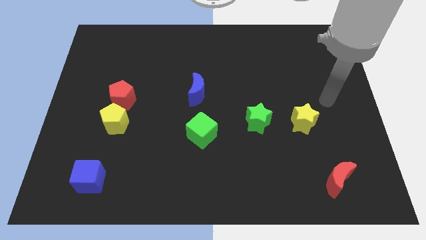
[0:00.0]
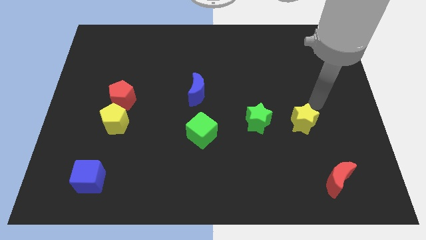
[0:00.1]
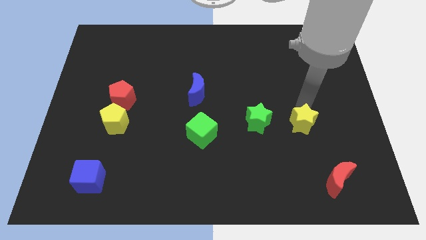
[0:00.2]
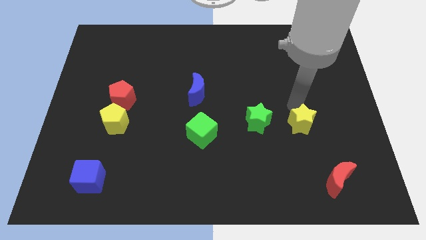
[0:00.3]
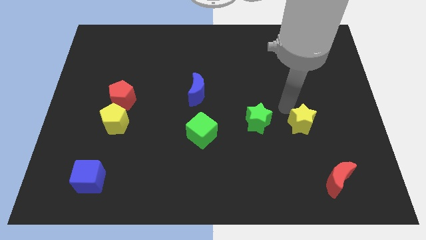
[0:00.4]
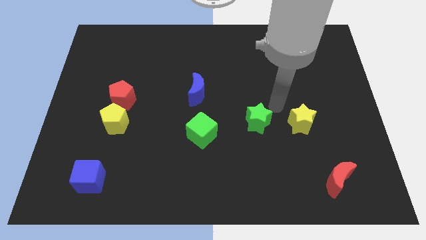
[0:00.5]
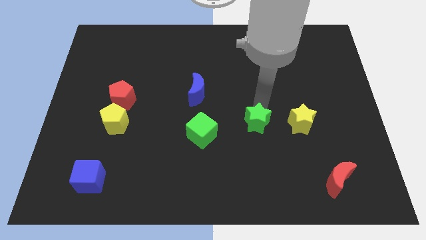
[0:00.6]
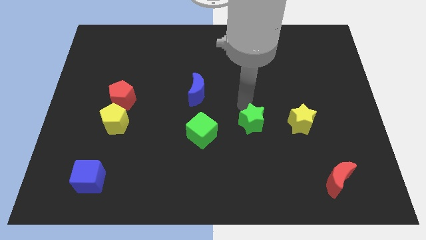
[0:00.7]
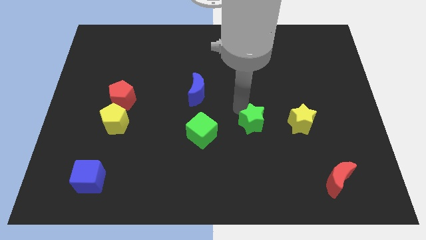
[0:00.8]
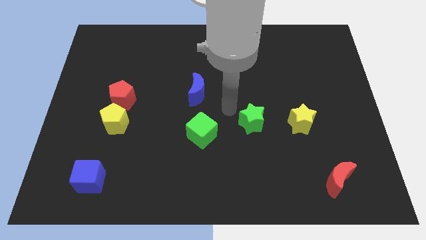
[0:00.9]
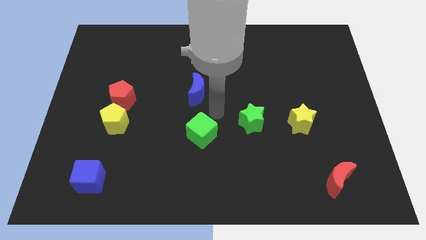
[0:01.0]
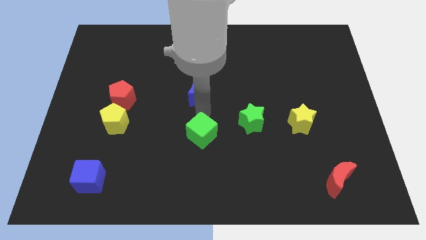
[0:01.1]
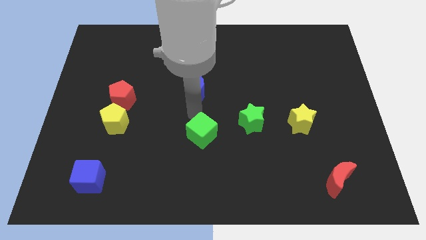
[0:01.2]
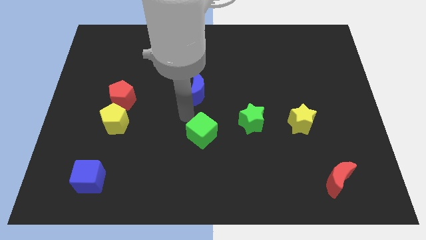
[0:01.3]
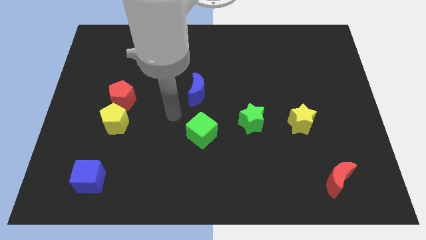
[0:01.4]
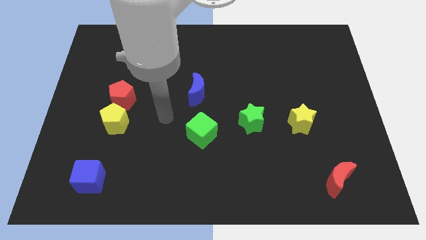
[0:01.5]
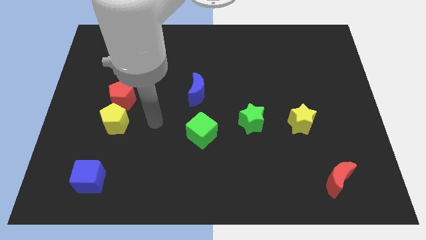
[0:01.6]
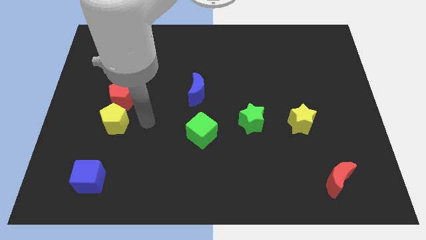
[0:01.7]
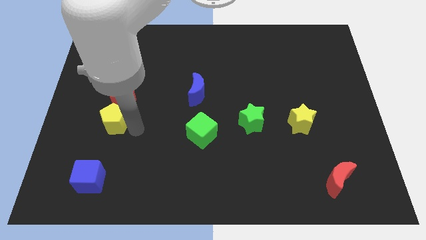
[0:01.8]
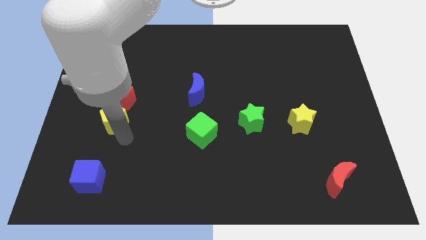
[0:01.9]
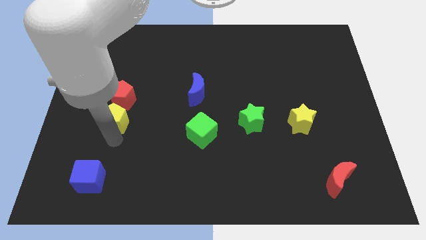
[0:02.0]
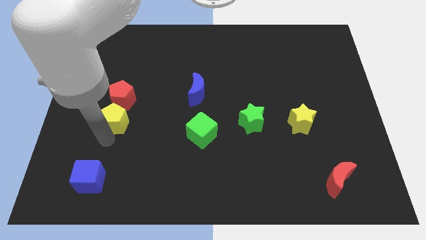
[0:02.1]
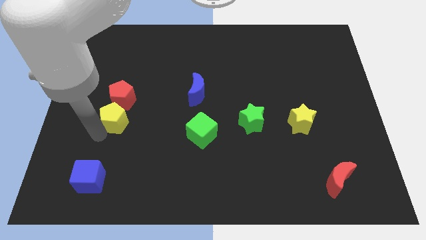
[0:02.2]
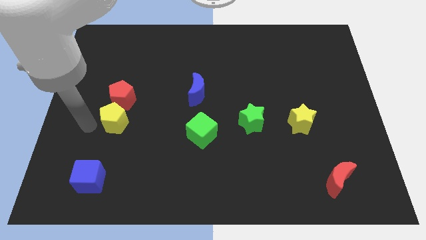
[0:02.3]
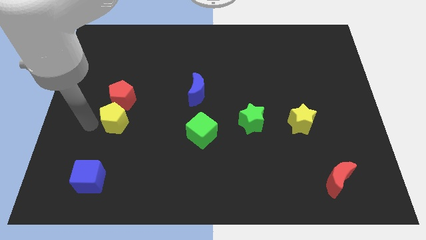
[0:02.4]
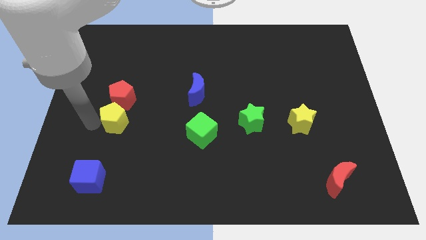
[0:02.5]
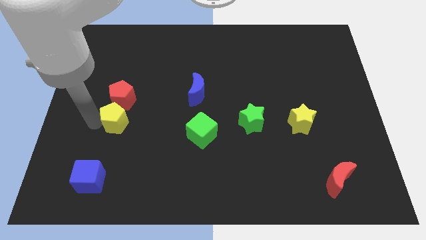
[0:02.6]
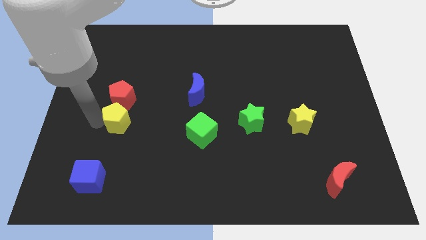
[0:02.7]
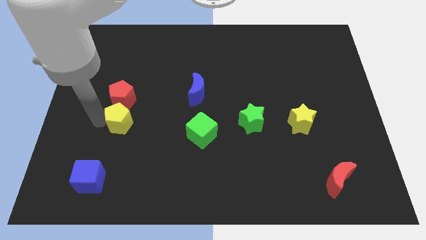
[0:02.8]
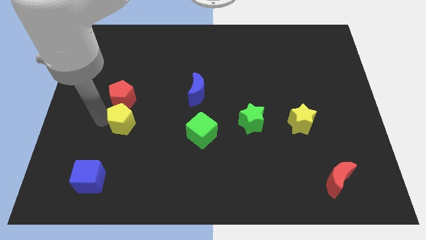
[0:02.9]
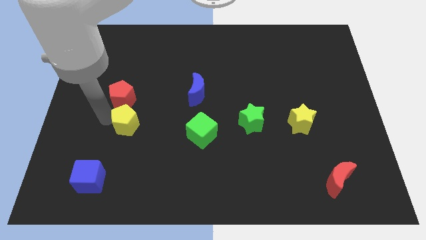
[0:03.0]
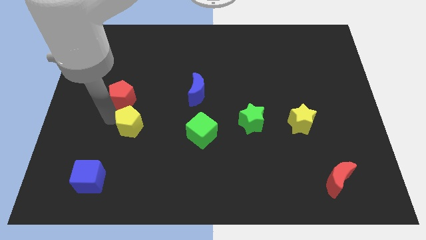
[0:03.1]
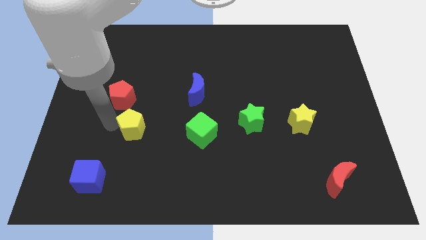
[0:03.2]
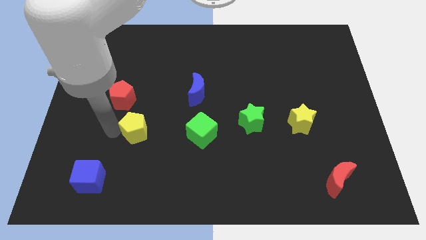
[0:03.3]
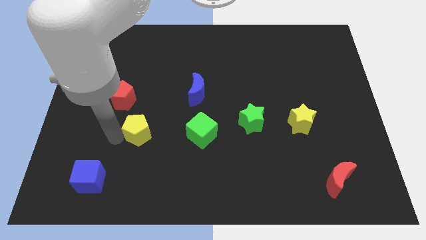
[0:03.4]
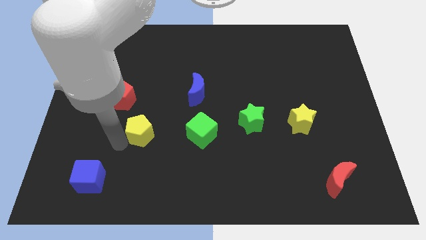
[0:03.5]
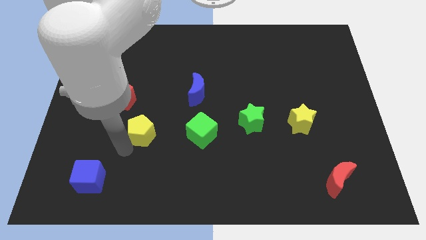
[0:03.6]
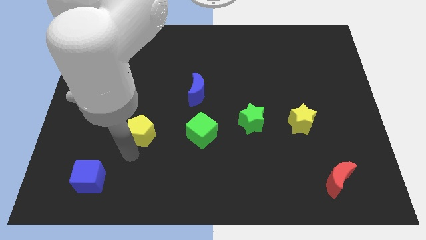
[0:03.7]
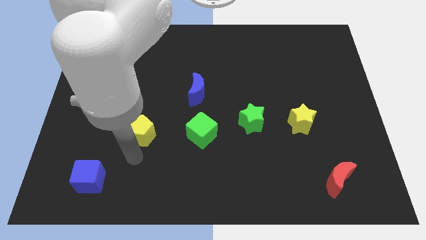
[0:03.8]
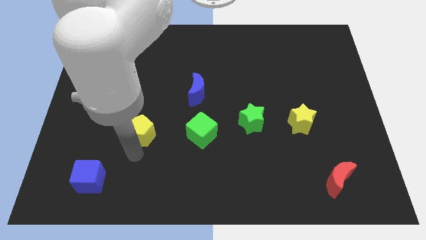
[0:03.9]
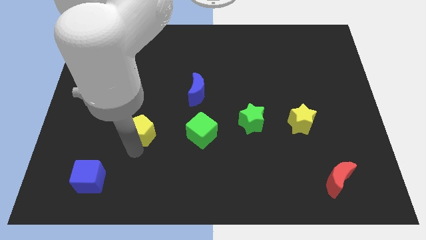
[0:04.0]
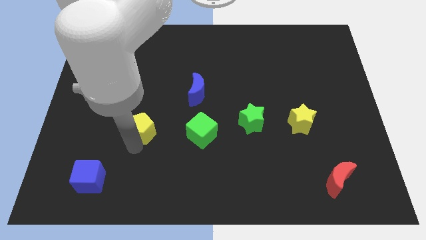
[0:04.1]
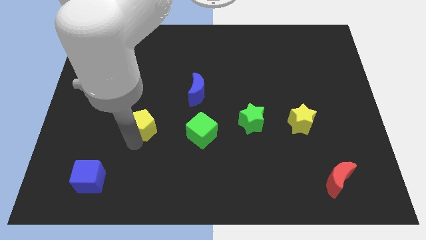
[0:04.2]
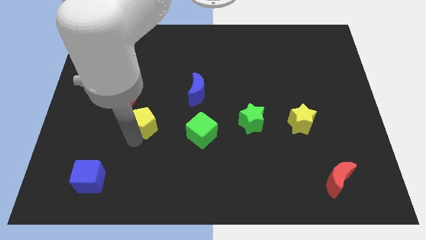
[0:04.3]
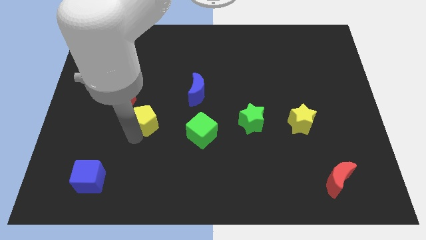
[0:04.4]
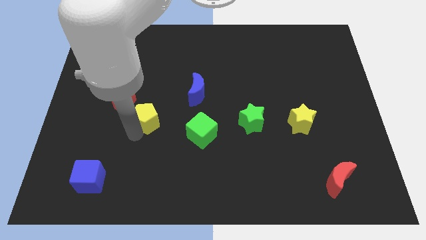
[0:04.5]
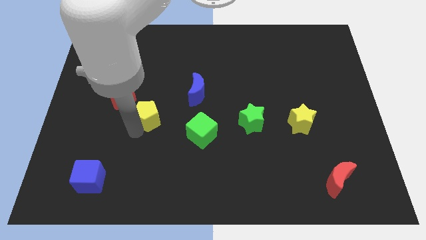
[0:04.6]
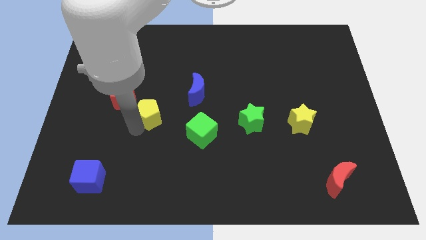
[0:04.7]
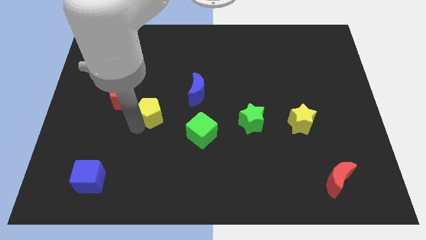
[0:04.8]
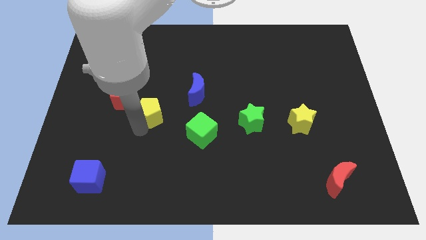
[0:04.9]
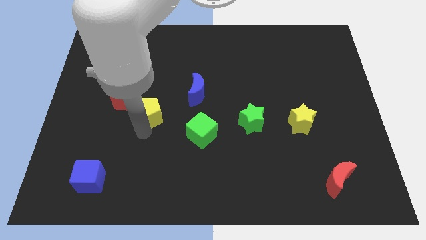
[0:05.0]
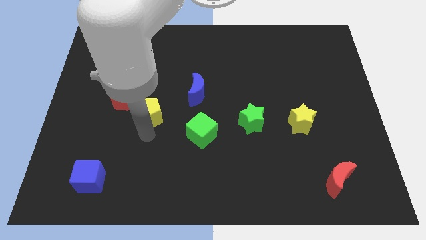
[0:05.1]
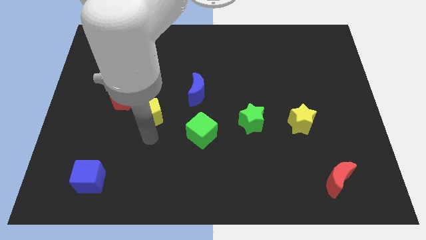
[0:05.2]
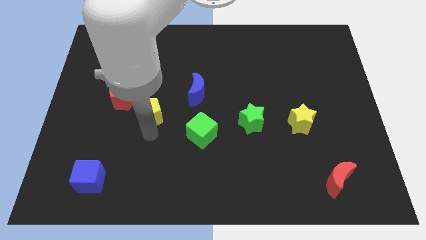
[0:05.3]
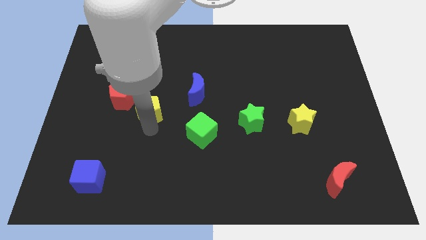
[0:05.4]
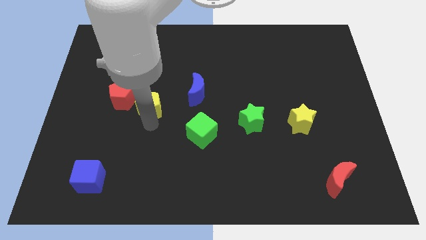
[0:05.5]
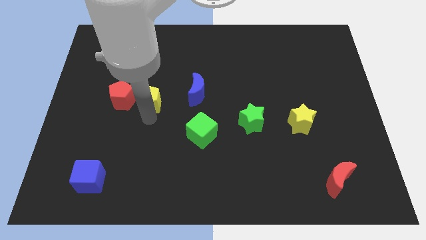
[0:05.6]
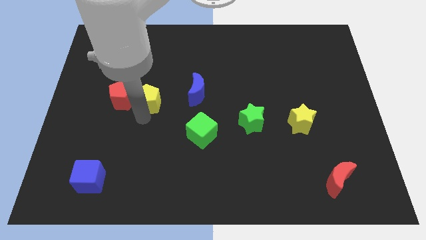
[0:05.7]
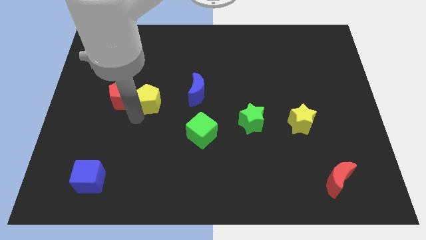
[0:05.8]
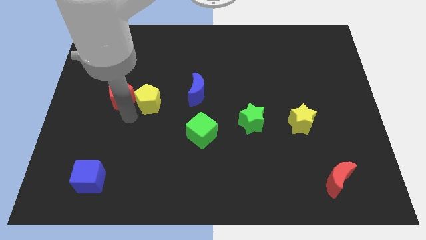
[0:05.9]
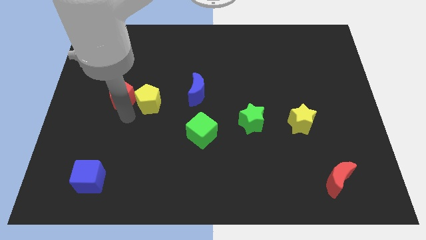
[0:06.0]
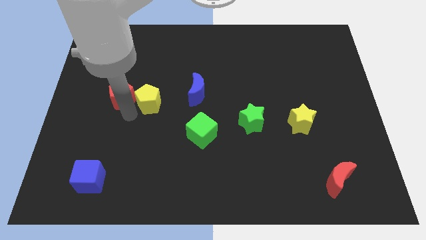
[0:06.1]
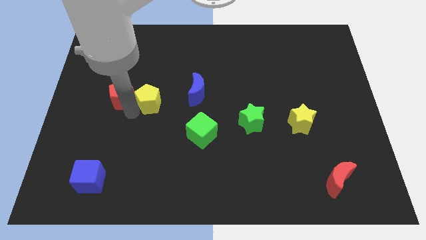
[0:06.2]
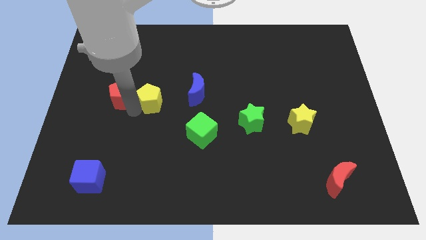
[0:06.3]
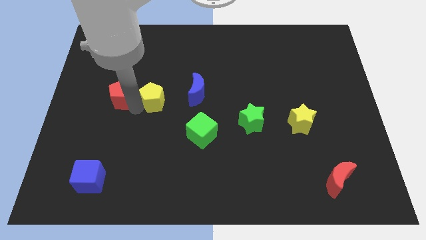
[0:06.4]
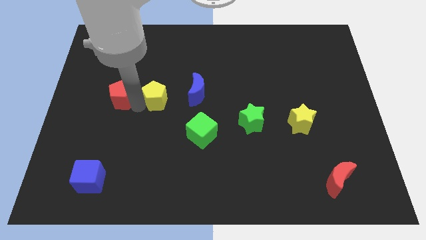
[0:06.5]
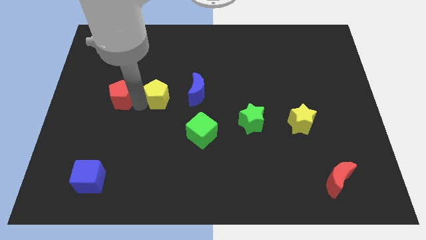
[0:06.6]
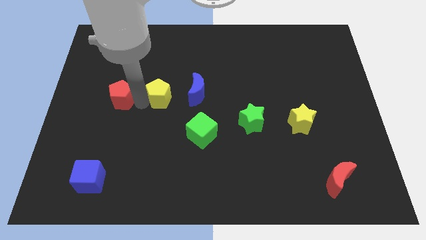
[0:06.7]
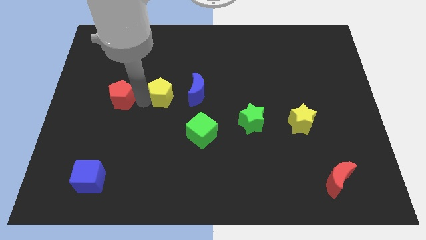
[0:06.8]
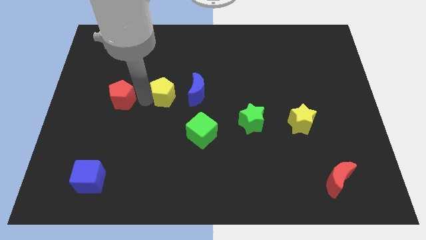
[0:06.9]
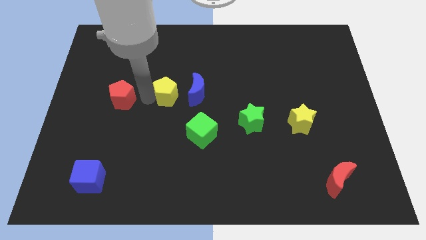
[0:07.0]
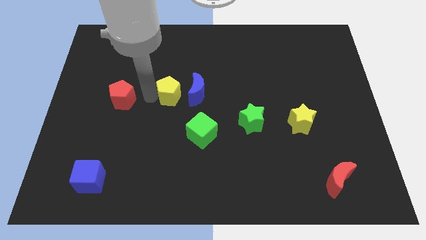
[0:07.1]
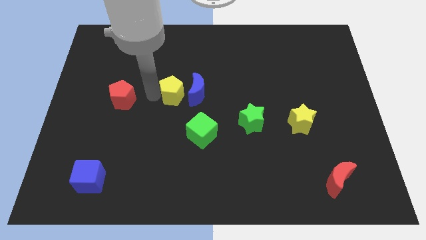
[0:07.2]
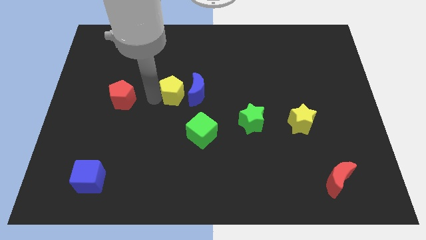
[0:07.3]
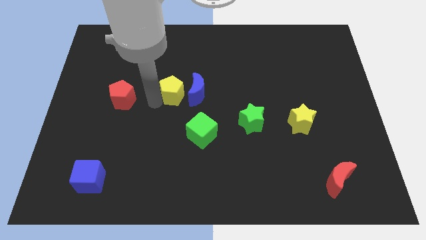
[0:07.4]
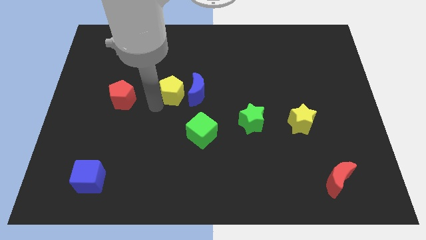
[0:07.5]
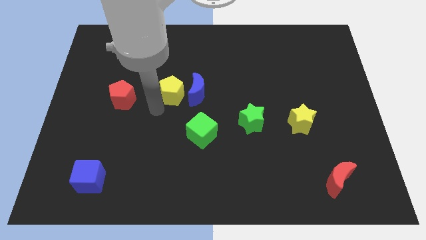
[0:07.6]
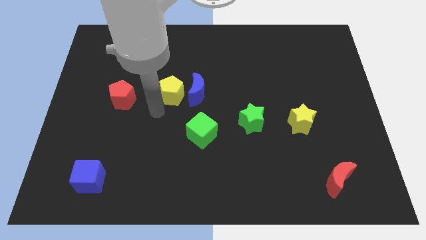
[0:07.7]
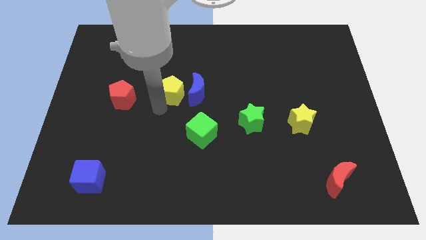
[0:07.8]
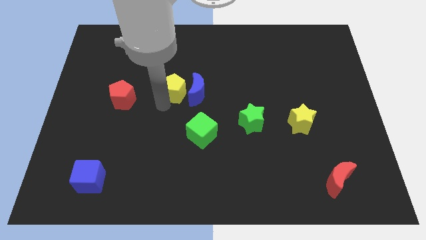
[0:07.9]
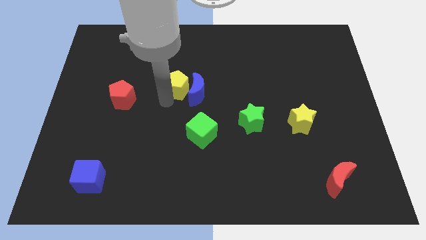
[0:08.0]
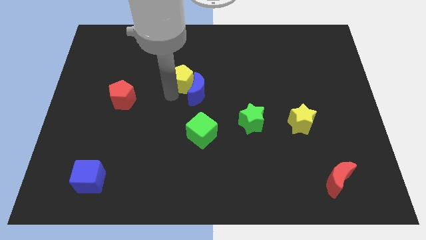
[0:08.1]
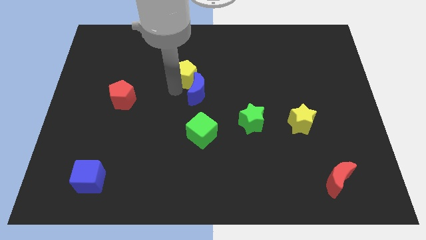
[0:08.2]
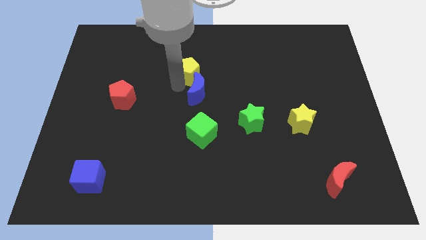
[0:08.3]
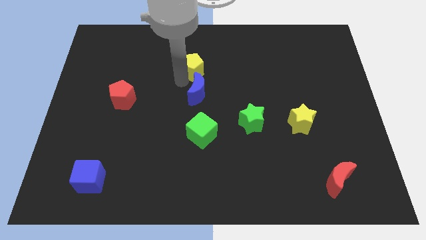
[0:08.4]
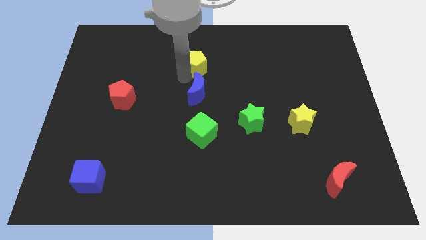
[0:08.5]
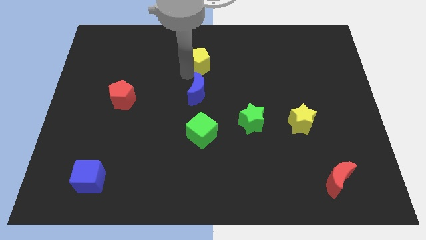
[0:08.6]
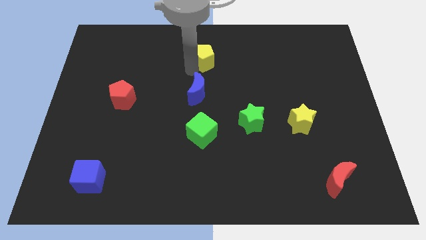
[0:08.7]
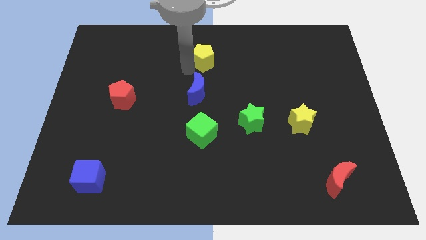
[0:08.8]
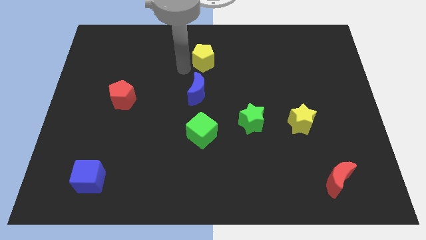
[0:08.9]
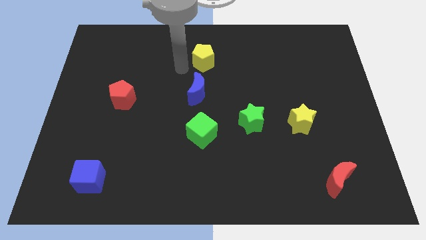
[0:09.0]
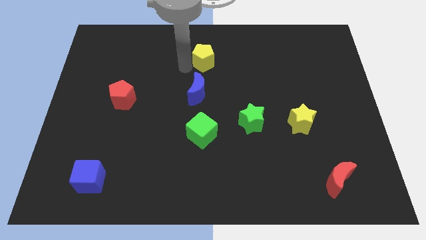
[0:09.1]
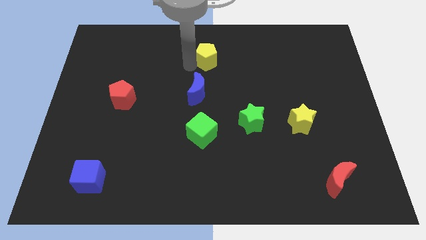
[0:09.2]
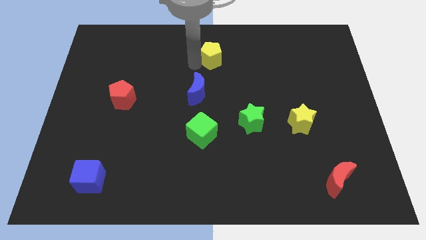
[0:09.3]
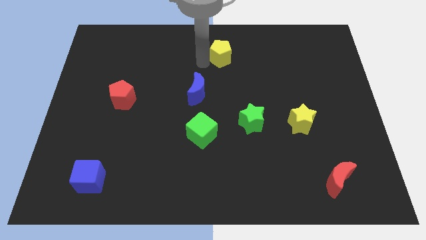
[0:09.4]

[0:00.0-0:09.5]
move the yellow pentagon to the top
